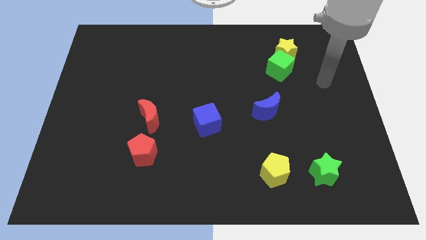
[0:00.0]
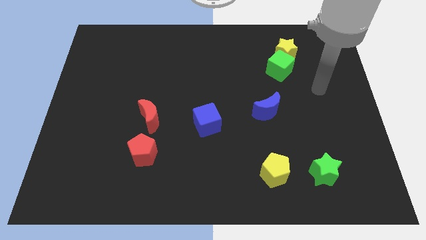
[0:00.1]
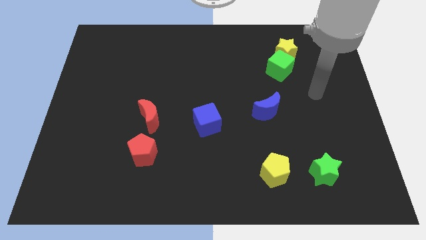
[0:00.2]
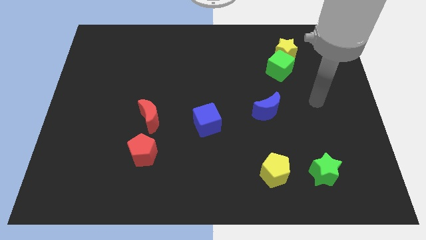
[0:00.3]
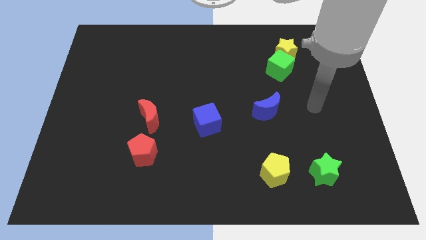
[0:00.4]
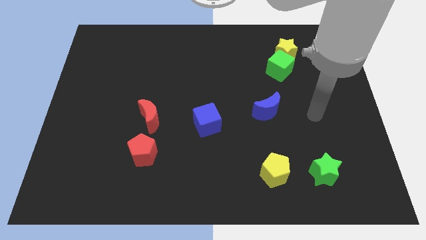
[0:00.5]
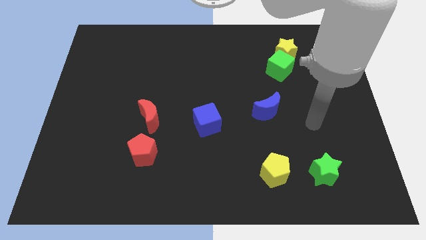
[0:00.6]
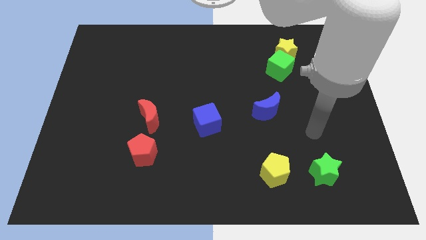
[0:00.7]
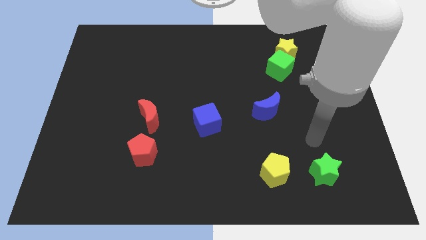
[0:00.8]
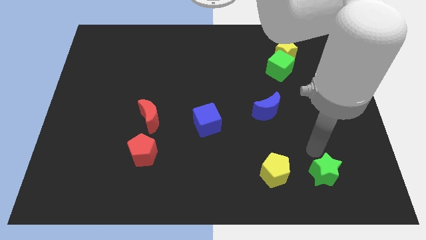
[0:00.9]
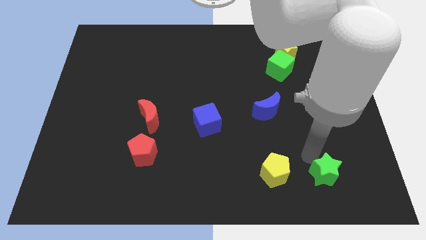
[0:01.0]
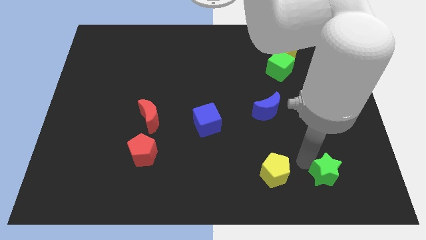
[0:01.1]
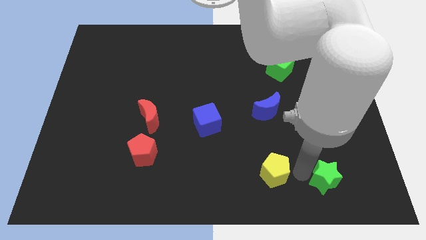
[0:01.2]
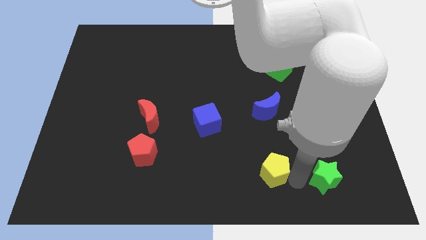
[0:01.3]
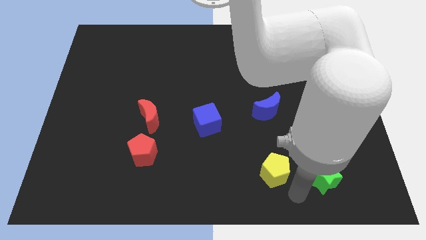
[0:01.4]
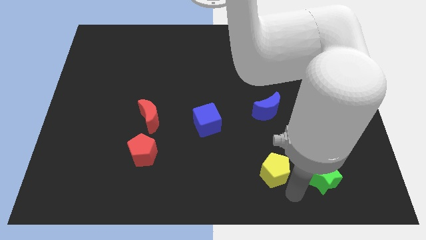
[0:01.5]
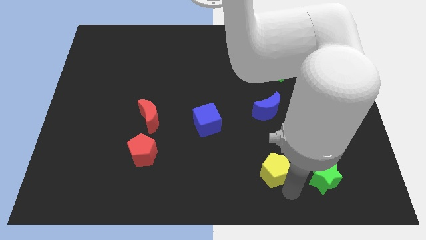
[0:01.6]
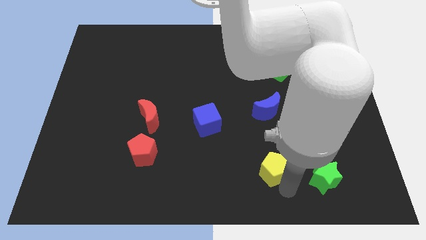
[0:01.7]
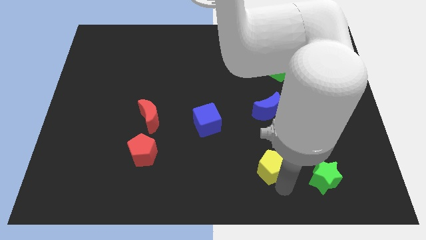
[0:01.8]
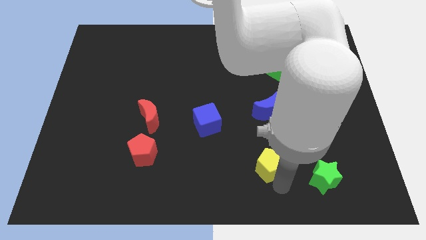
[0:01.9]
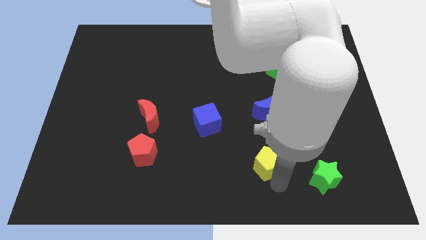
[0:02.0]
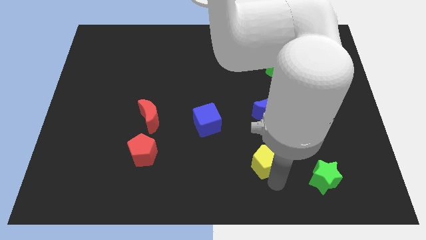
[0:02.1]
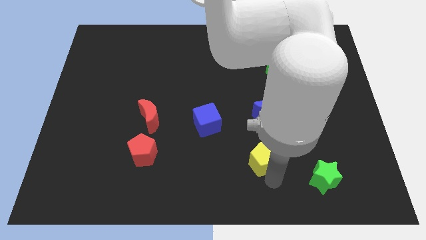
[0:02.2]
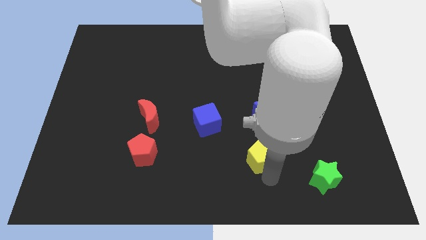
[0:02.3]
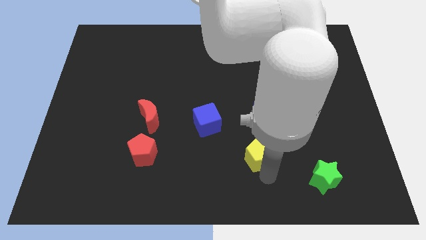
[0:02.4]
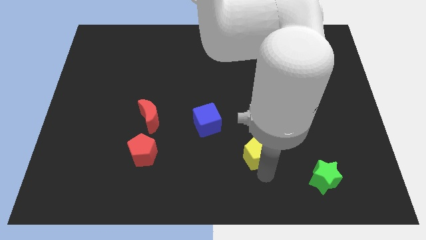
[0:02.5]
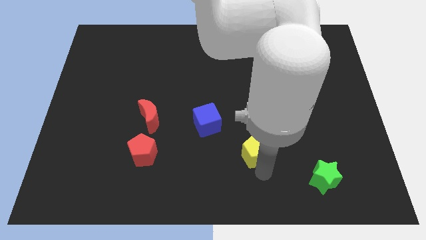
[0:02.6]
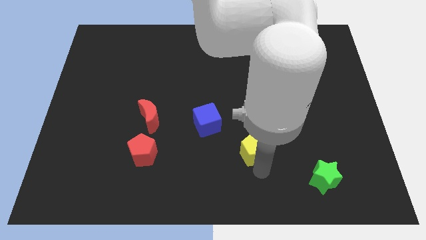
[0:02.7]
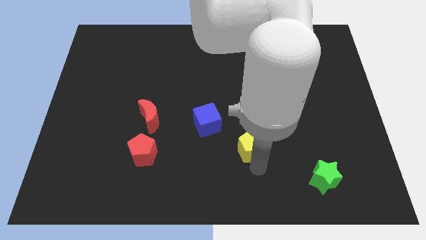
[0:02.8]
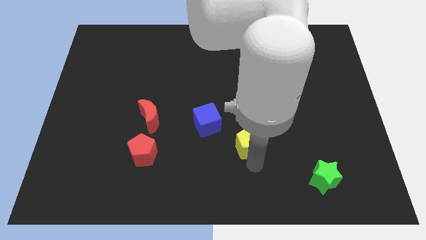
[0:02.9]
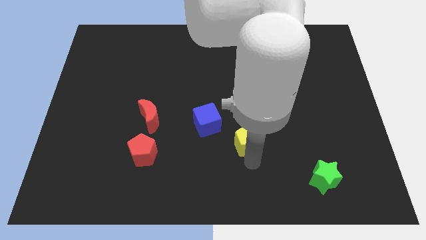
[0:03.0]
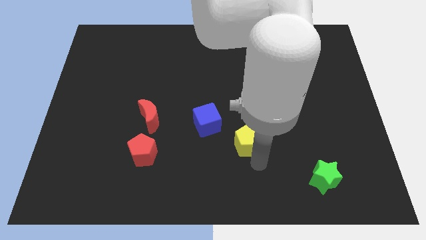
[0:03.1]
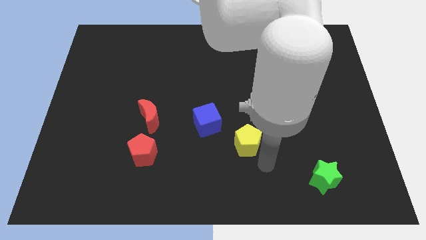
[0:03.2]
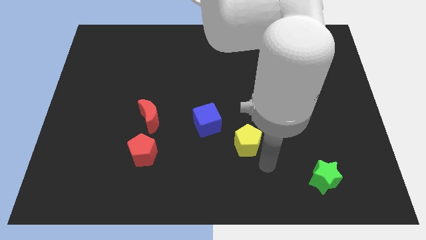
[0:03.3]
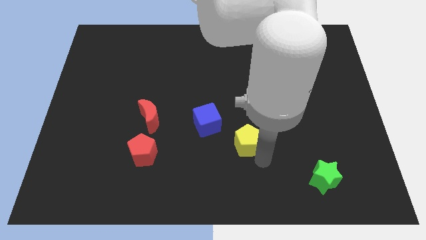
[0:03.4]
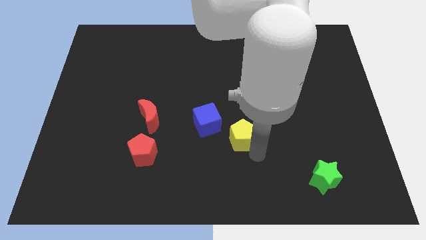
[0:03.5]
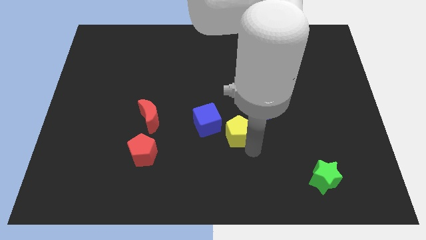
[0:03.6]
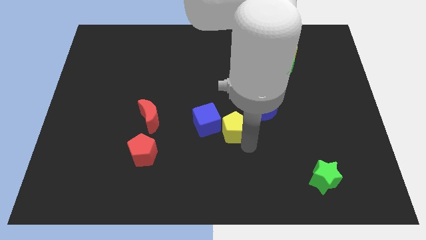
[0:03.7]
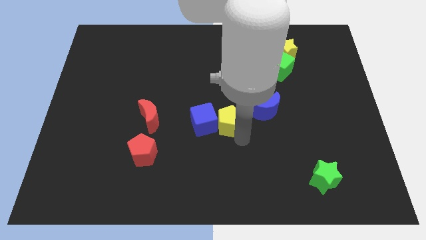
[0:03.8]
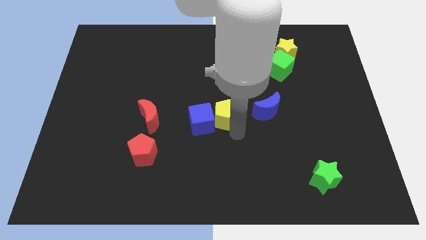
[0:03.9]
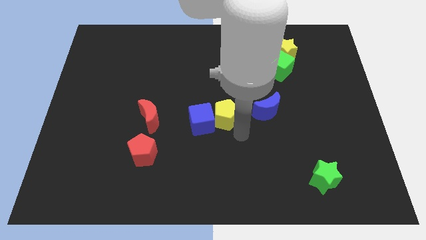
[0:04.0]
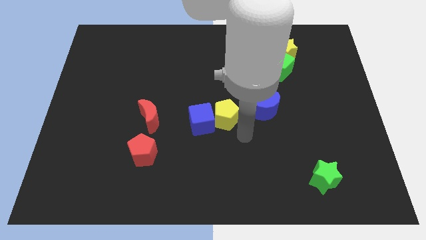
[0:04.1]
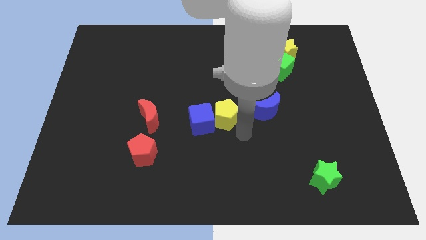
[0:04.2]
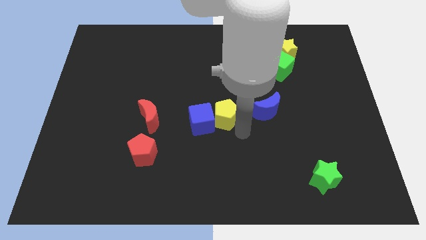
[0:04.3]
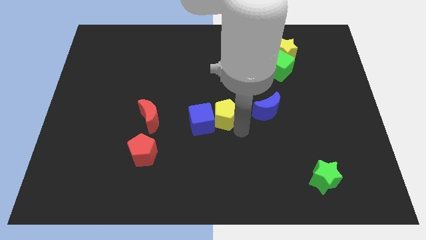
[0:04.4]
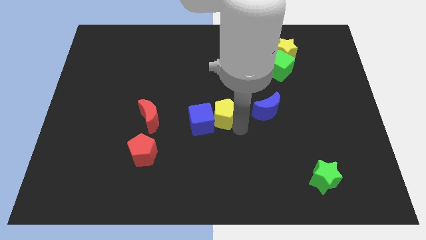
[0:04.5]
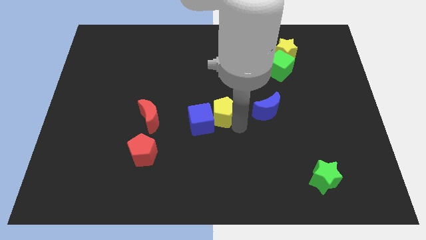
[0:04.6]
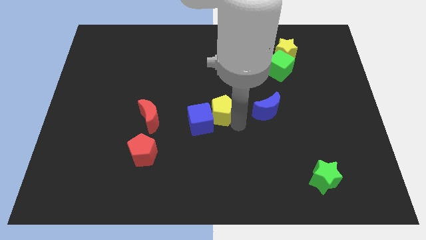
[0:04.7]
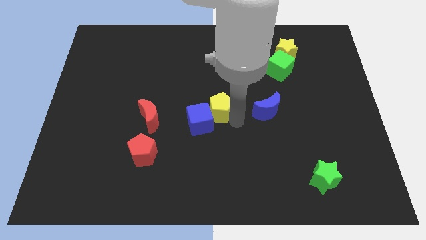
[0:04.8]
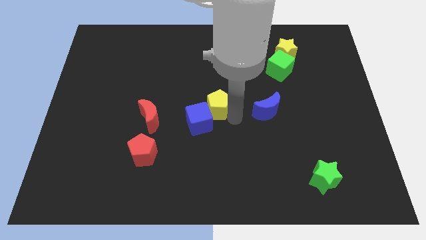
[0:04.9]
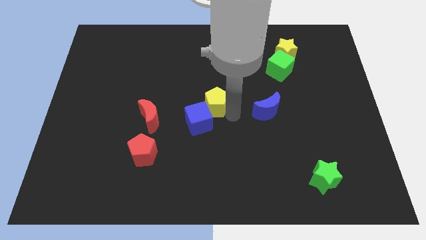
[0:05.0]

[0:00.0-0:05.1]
move the yellow pentagon upwards and left

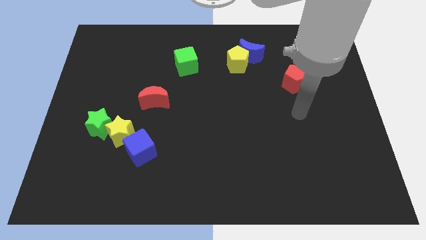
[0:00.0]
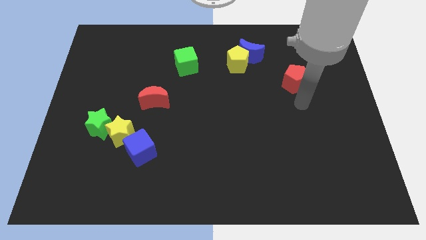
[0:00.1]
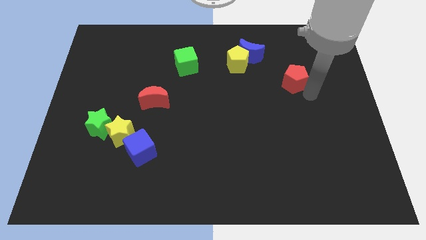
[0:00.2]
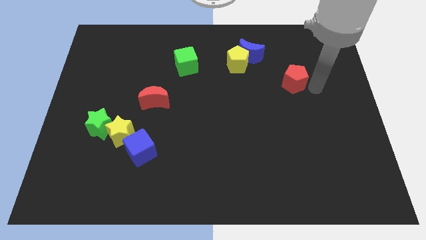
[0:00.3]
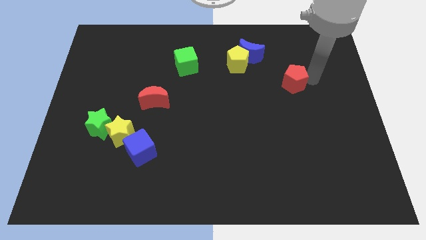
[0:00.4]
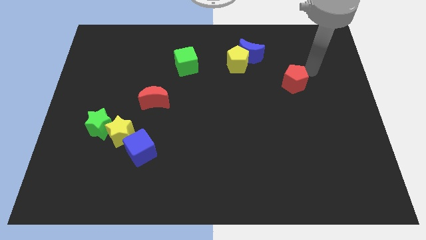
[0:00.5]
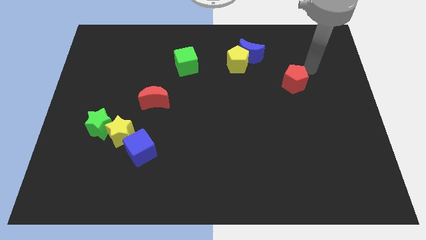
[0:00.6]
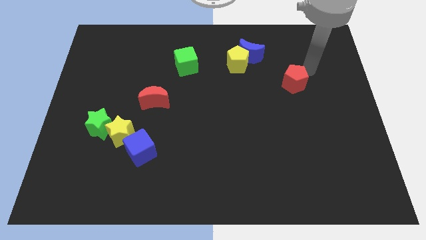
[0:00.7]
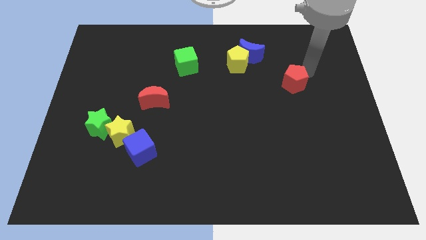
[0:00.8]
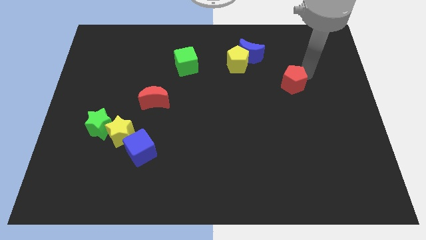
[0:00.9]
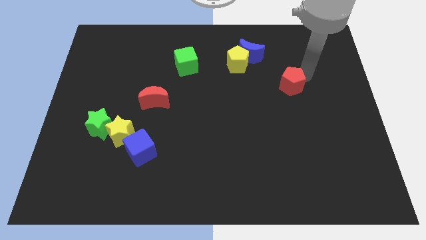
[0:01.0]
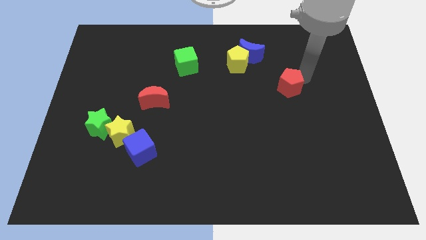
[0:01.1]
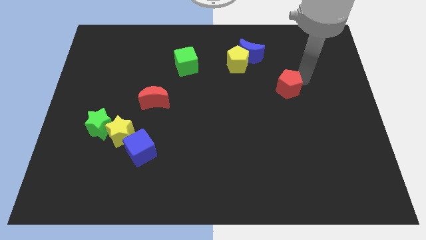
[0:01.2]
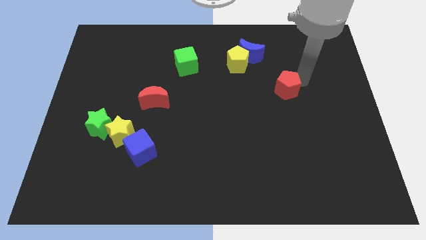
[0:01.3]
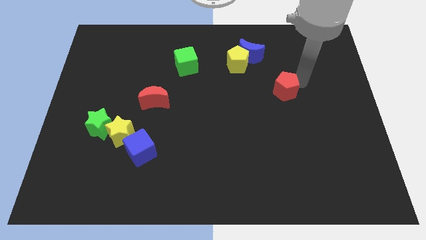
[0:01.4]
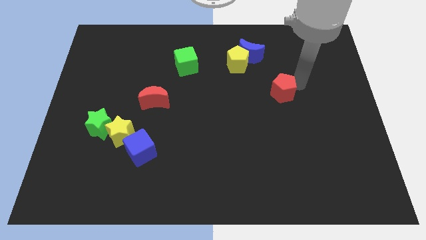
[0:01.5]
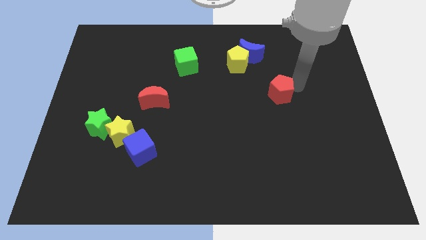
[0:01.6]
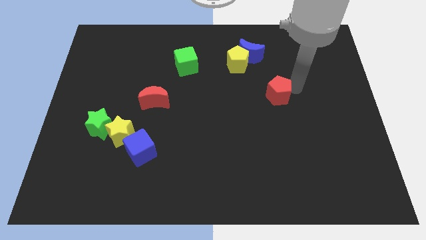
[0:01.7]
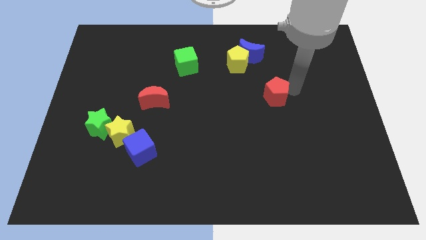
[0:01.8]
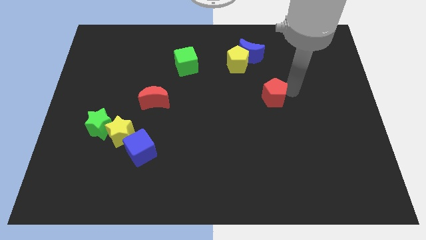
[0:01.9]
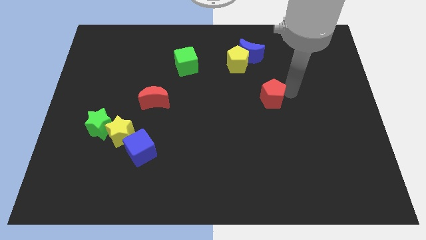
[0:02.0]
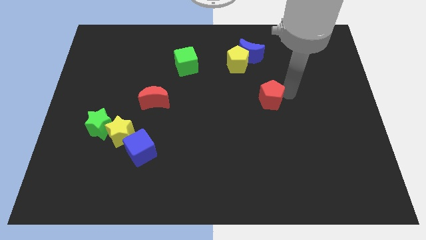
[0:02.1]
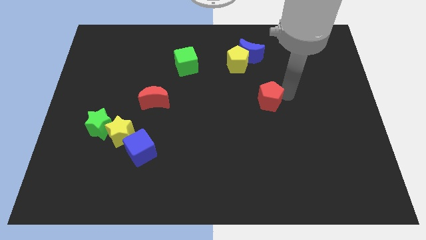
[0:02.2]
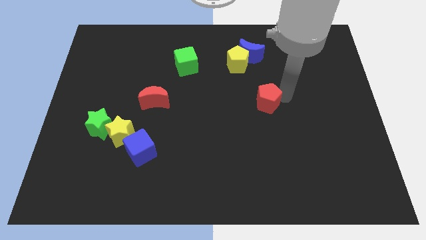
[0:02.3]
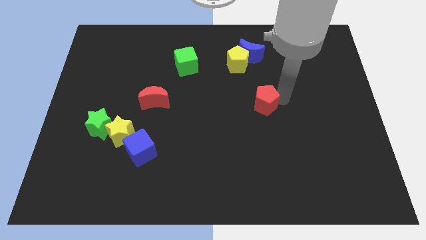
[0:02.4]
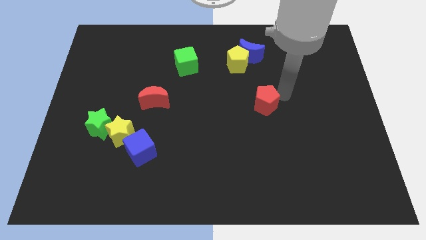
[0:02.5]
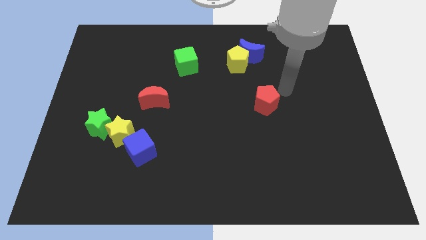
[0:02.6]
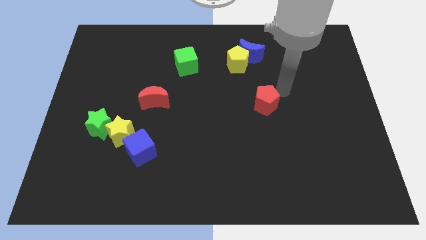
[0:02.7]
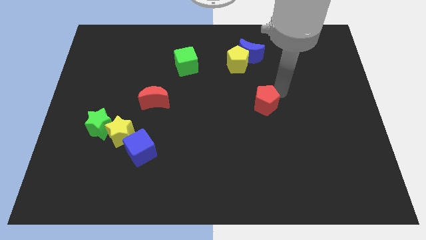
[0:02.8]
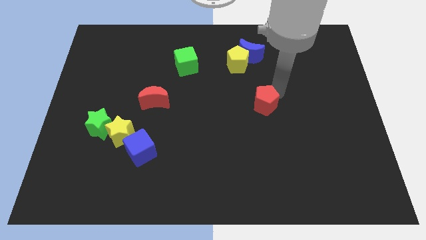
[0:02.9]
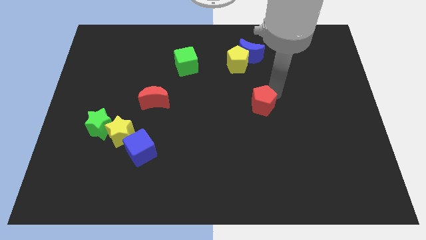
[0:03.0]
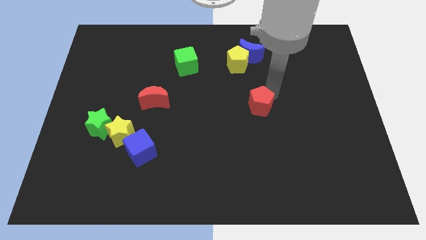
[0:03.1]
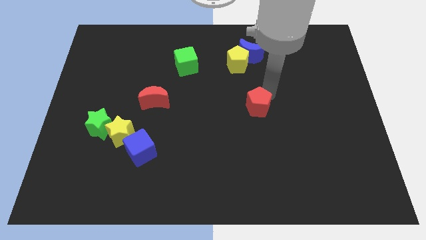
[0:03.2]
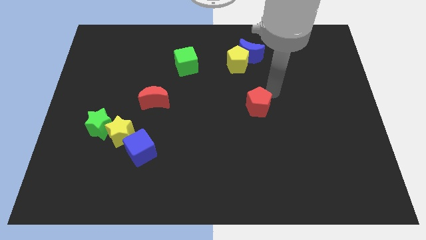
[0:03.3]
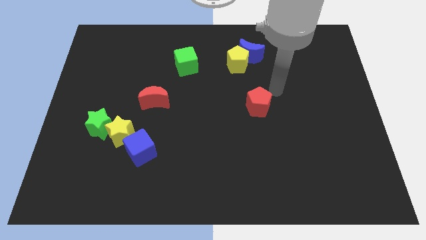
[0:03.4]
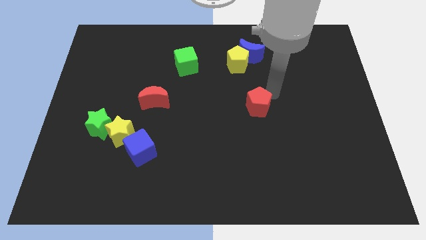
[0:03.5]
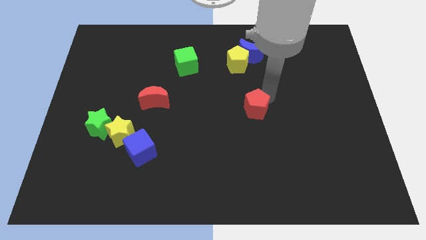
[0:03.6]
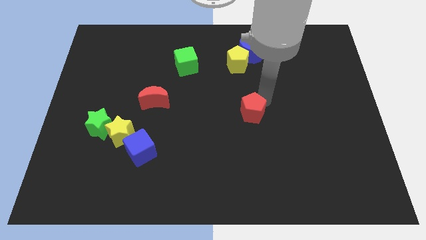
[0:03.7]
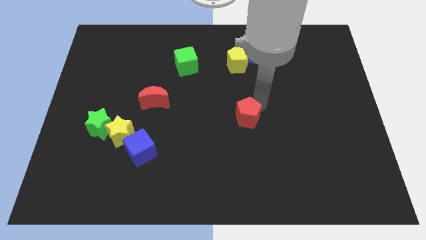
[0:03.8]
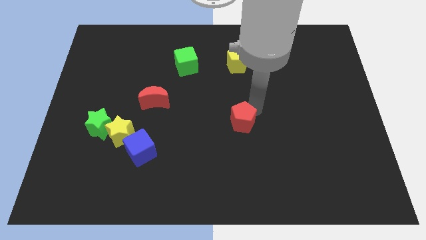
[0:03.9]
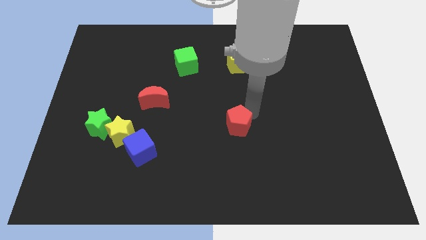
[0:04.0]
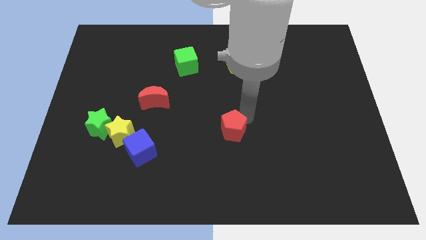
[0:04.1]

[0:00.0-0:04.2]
move the red pentagon downwards and to the left
